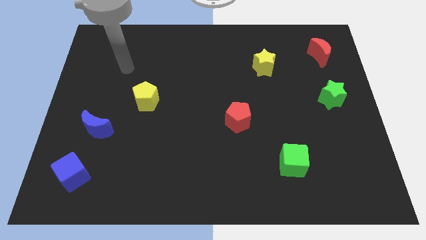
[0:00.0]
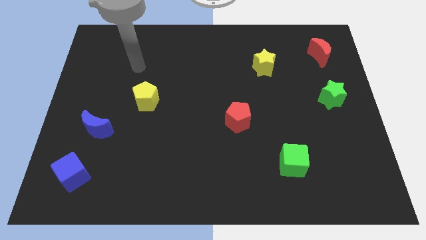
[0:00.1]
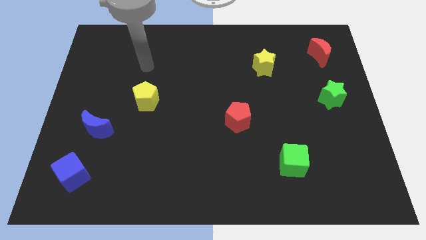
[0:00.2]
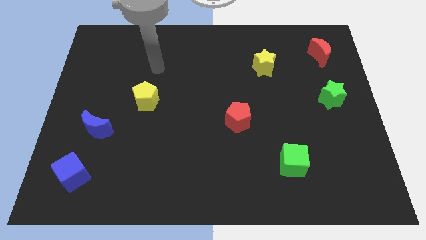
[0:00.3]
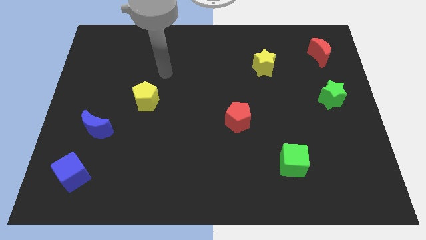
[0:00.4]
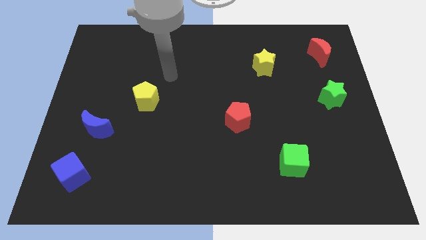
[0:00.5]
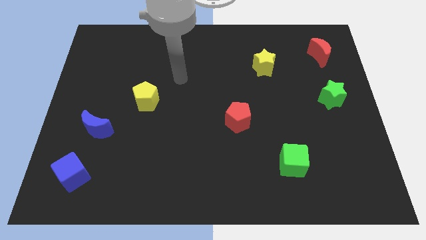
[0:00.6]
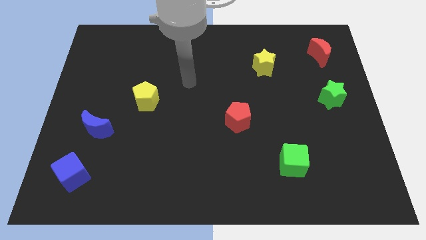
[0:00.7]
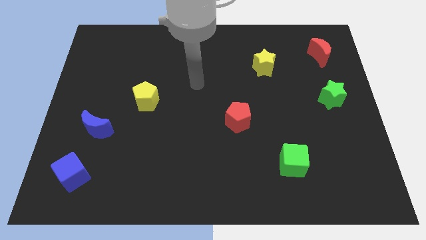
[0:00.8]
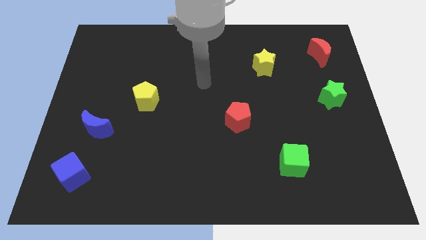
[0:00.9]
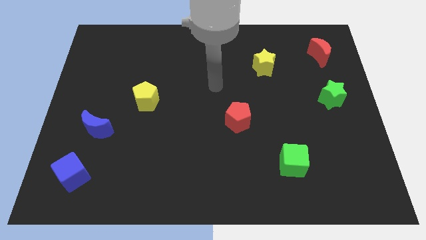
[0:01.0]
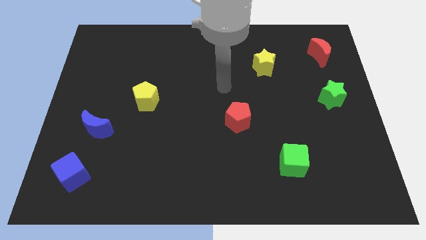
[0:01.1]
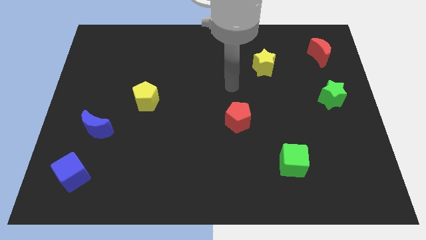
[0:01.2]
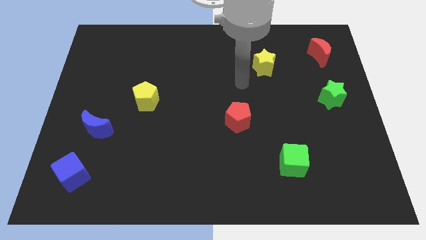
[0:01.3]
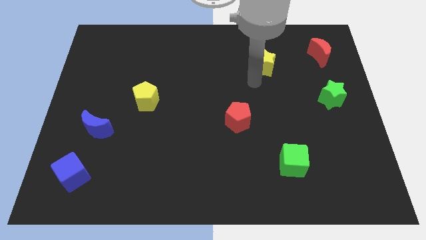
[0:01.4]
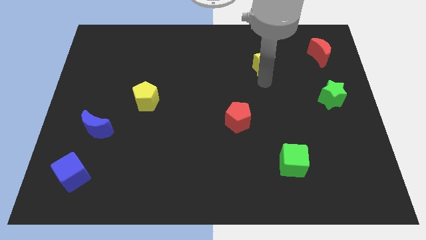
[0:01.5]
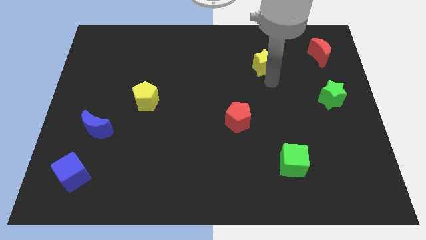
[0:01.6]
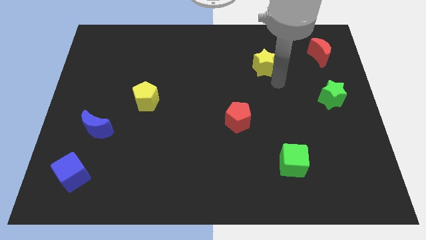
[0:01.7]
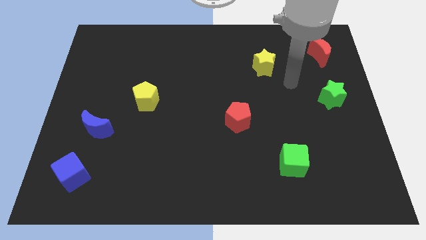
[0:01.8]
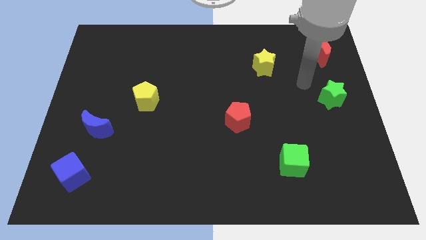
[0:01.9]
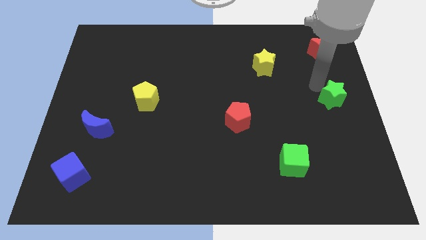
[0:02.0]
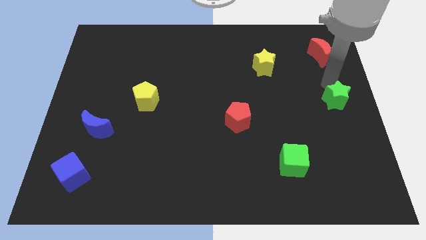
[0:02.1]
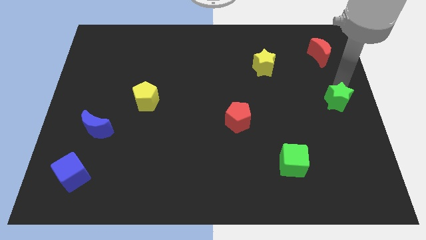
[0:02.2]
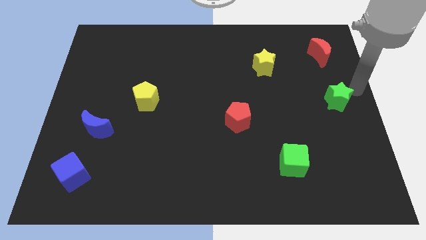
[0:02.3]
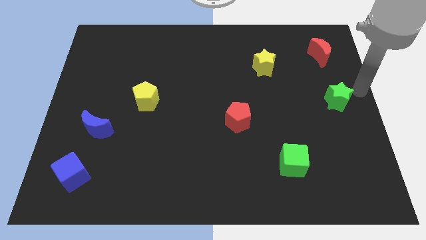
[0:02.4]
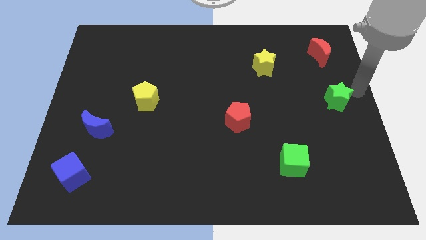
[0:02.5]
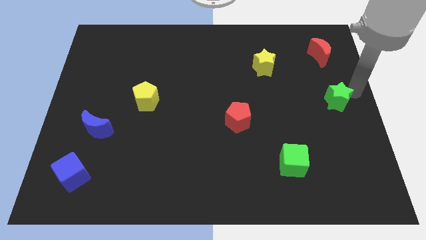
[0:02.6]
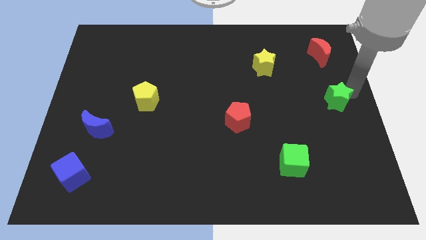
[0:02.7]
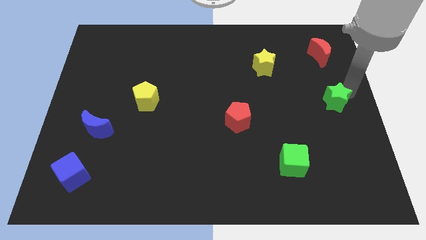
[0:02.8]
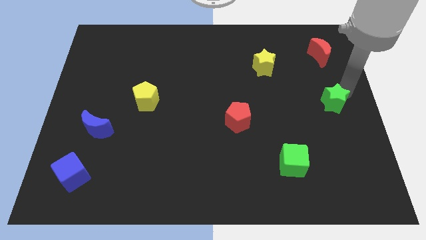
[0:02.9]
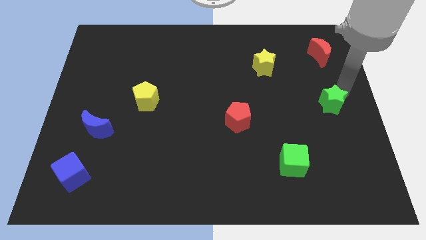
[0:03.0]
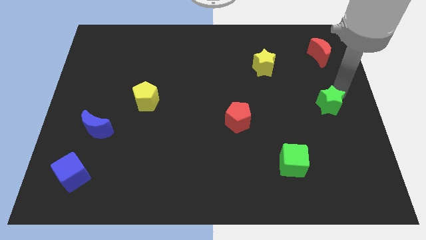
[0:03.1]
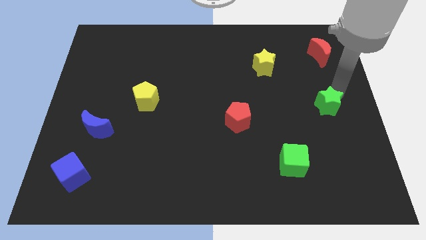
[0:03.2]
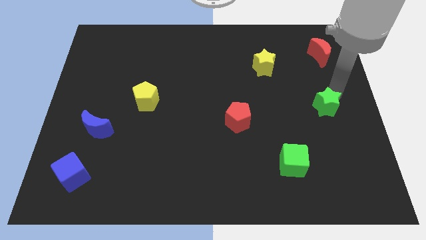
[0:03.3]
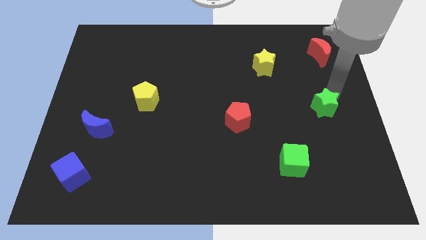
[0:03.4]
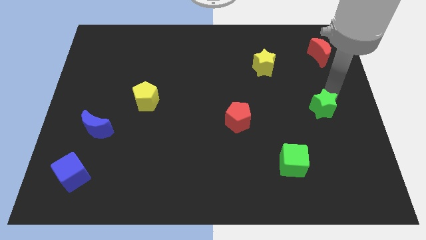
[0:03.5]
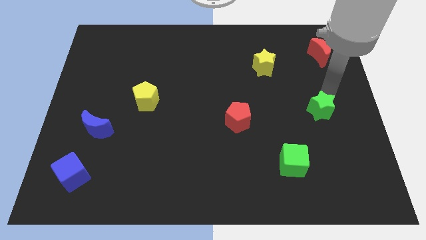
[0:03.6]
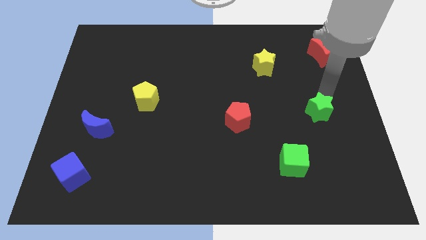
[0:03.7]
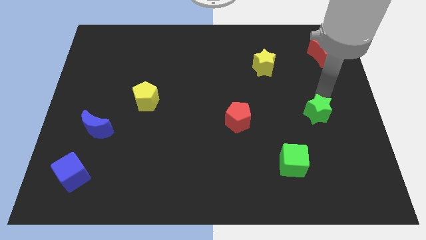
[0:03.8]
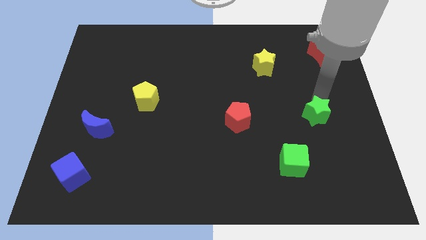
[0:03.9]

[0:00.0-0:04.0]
slide the green star a little bit downwards and then to the left

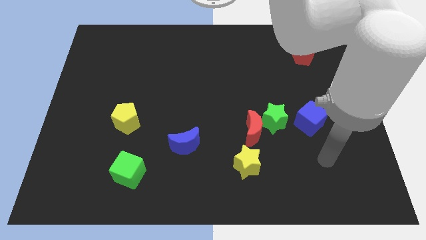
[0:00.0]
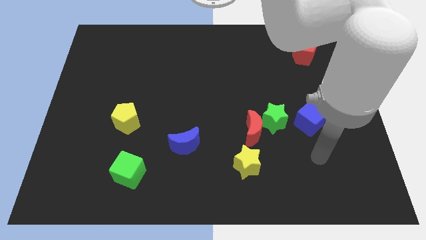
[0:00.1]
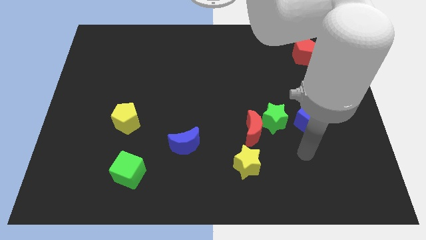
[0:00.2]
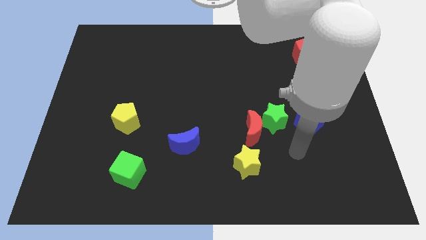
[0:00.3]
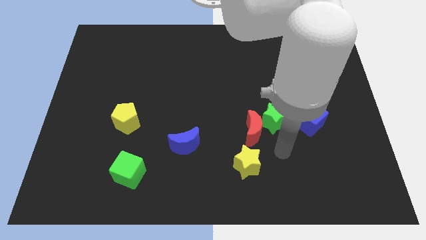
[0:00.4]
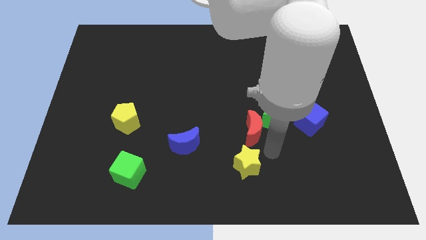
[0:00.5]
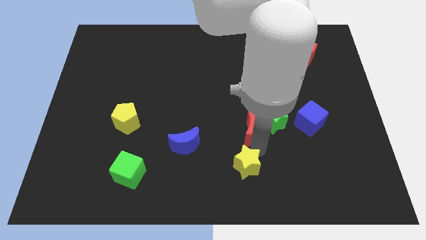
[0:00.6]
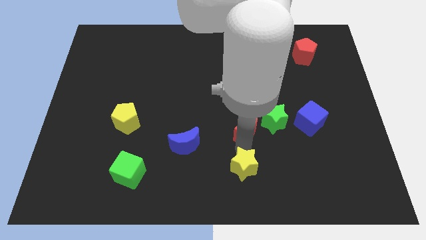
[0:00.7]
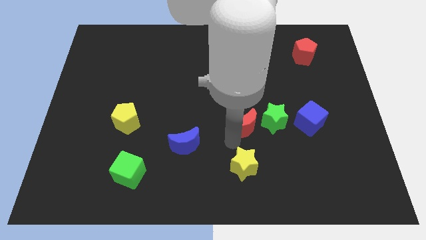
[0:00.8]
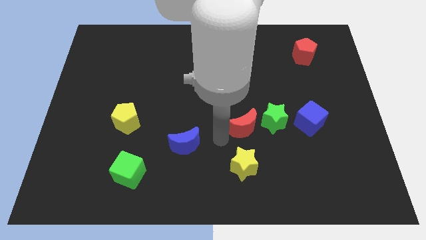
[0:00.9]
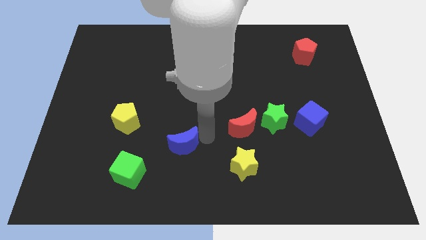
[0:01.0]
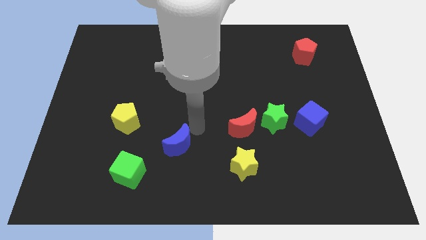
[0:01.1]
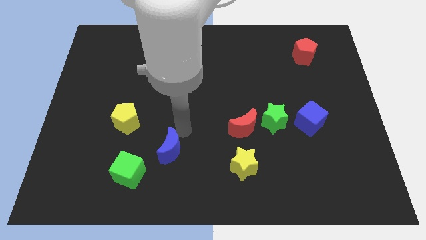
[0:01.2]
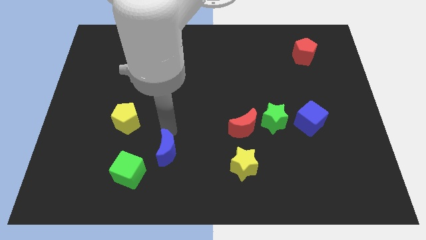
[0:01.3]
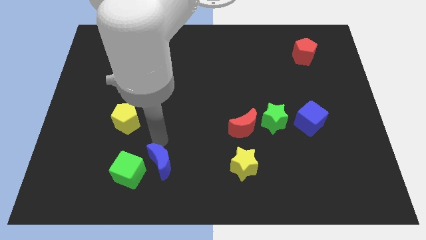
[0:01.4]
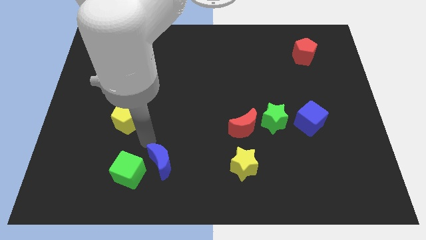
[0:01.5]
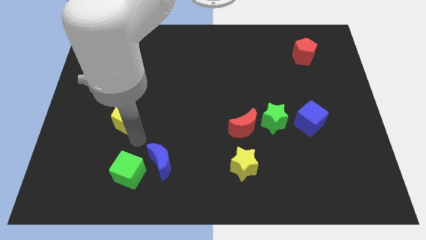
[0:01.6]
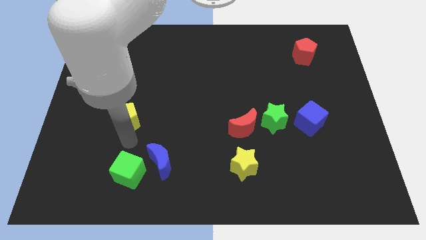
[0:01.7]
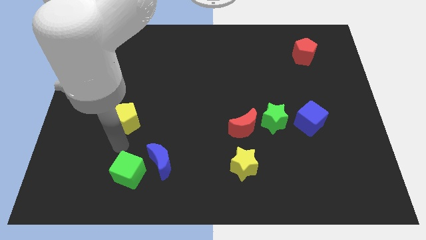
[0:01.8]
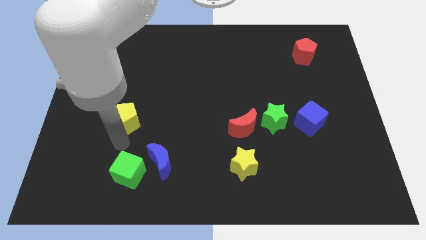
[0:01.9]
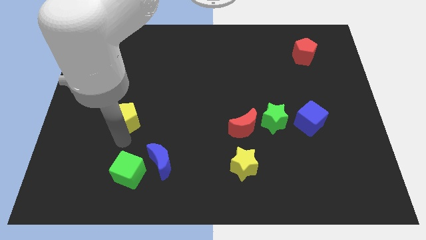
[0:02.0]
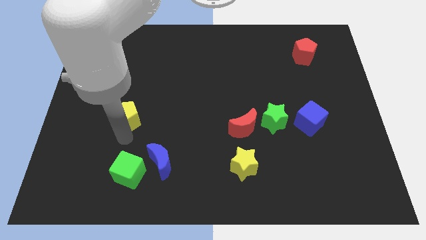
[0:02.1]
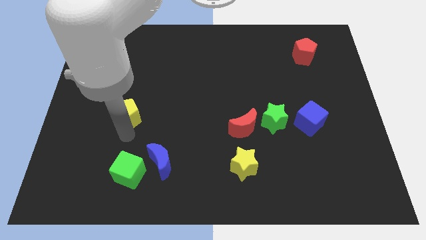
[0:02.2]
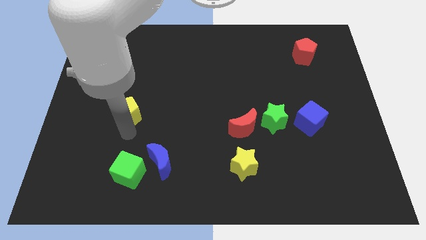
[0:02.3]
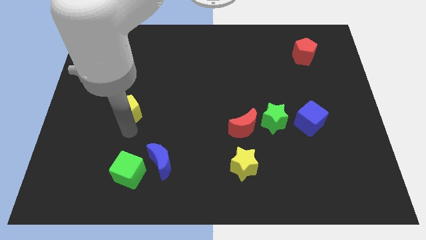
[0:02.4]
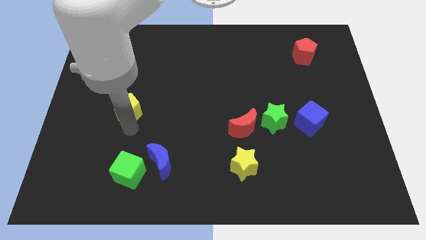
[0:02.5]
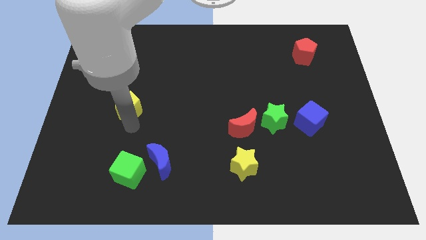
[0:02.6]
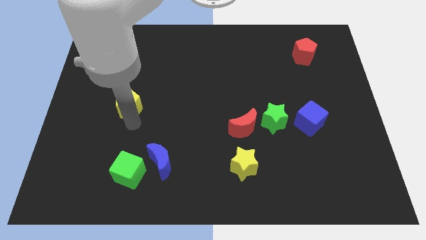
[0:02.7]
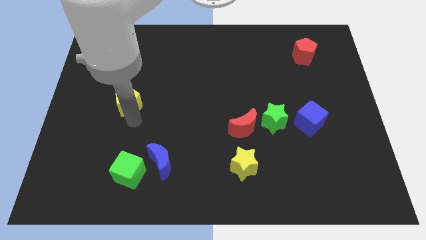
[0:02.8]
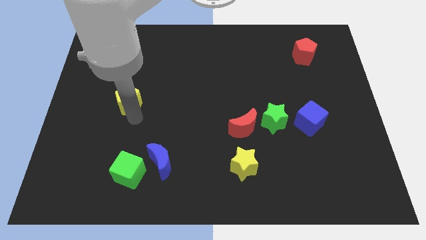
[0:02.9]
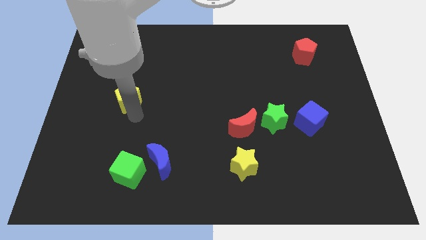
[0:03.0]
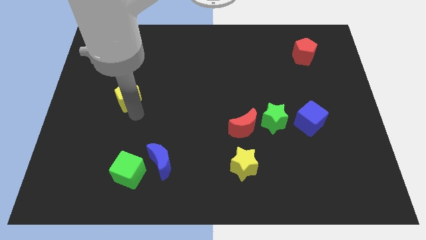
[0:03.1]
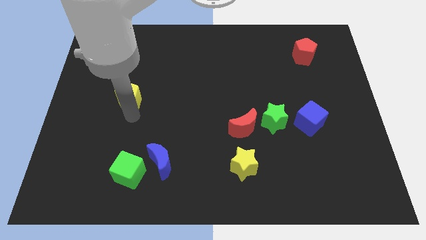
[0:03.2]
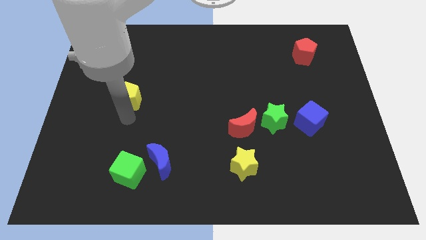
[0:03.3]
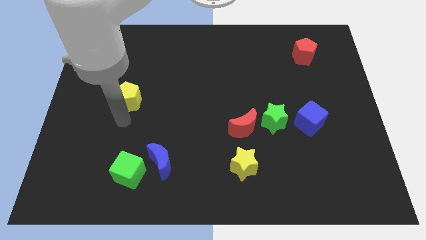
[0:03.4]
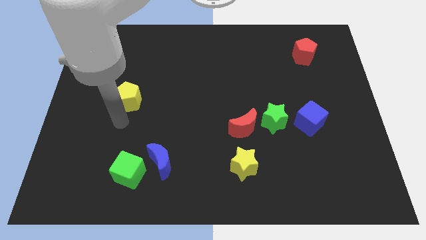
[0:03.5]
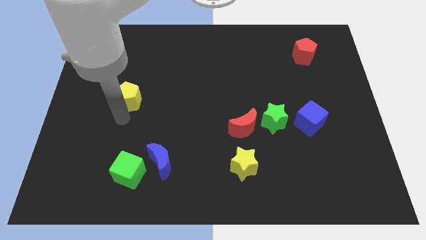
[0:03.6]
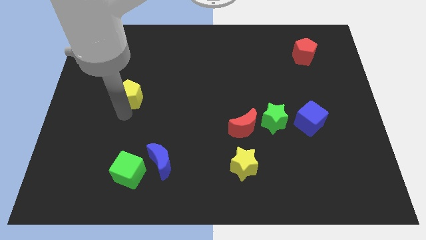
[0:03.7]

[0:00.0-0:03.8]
move the yellow pentagon up somewhat

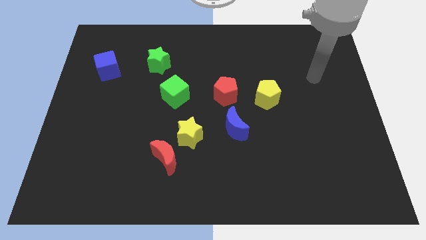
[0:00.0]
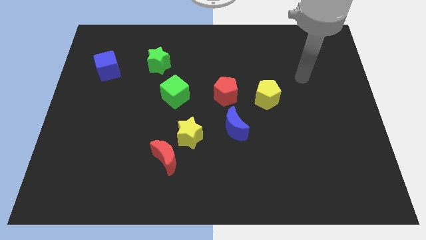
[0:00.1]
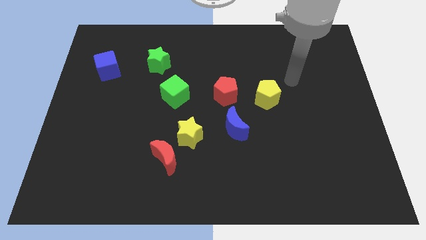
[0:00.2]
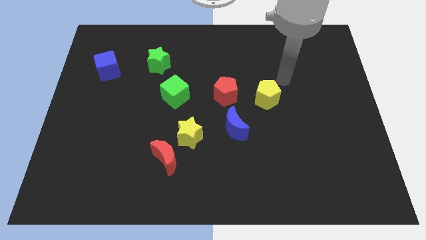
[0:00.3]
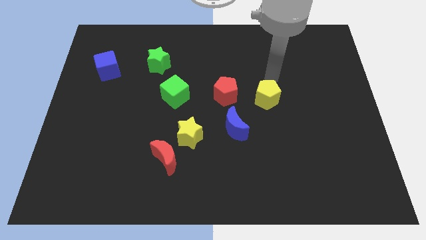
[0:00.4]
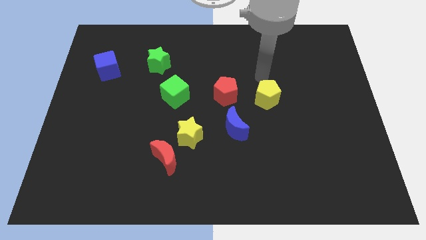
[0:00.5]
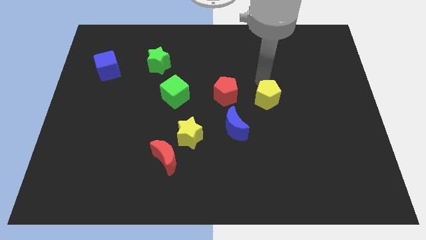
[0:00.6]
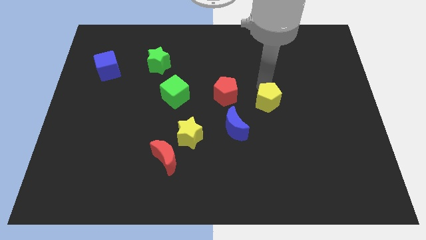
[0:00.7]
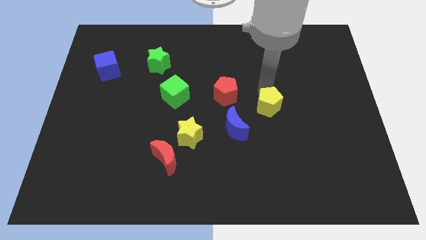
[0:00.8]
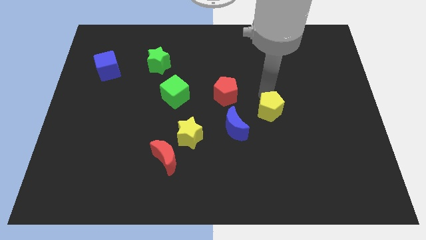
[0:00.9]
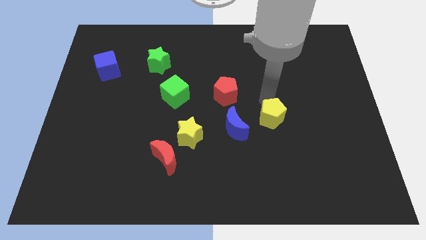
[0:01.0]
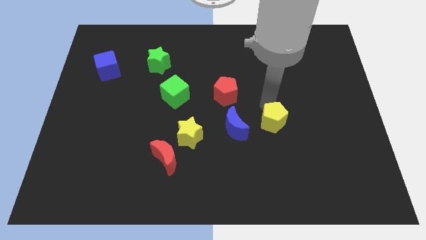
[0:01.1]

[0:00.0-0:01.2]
move the yellow pentagon slightly down
